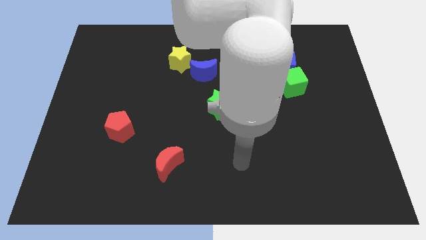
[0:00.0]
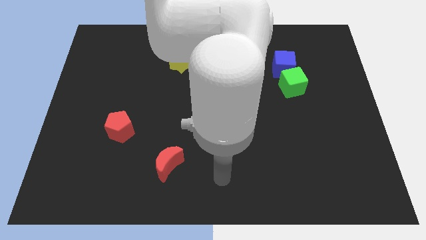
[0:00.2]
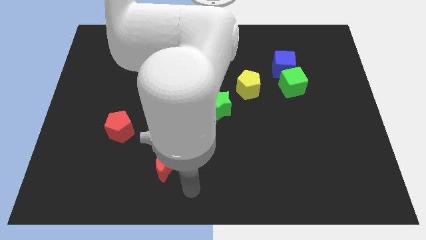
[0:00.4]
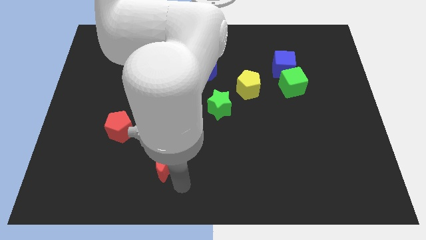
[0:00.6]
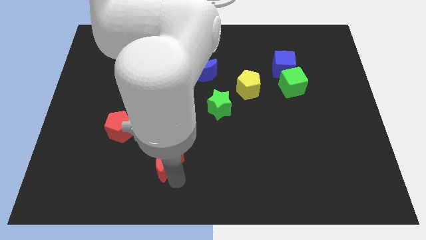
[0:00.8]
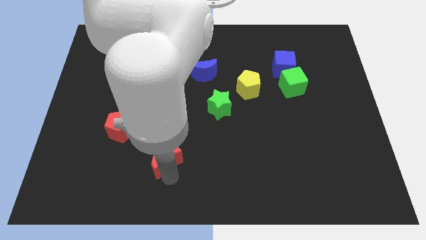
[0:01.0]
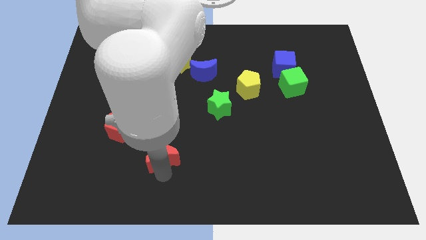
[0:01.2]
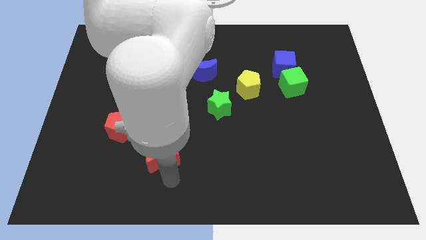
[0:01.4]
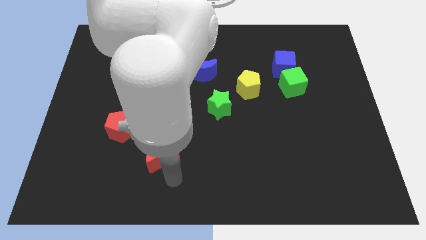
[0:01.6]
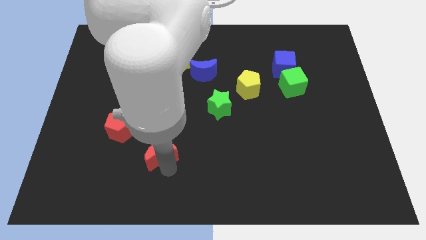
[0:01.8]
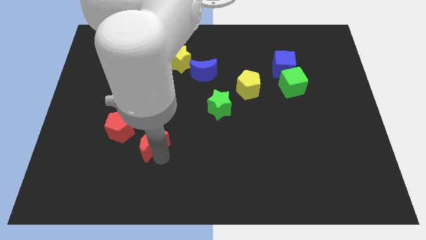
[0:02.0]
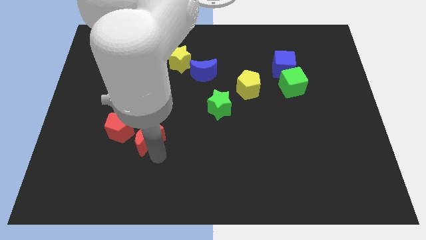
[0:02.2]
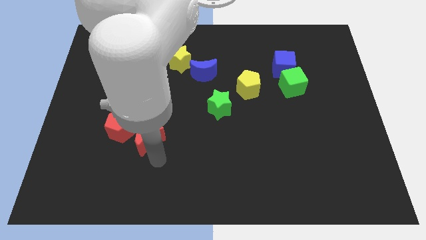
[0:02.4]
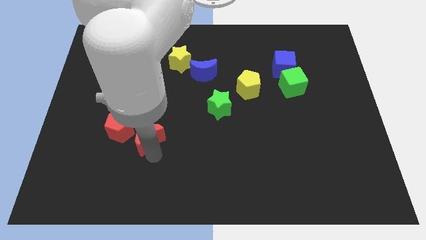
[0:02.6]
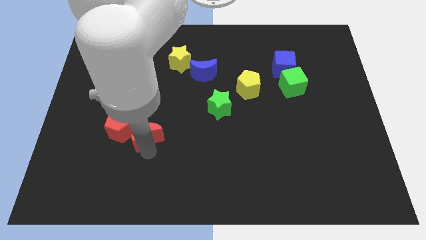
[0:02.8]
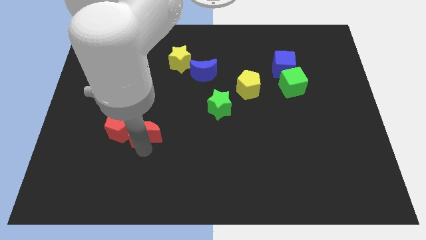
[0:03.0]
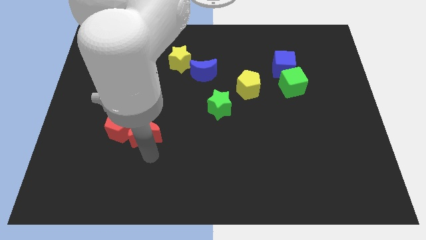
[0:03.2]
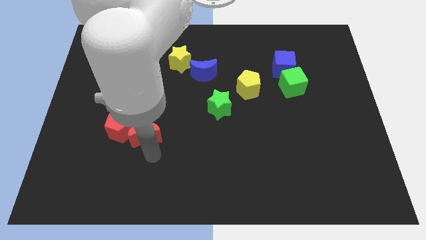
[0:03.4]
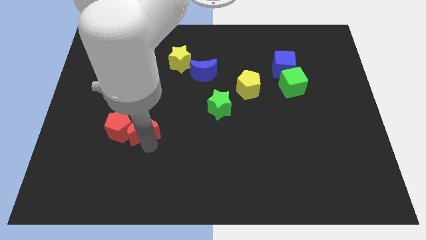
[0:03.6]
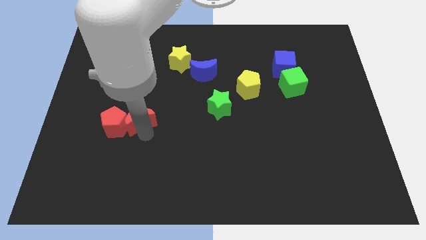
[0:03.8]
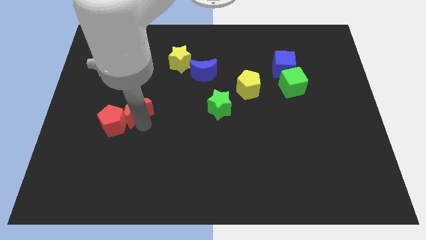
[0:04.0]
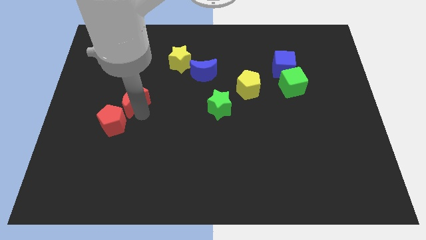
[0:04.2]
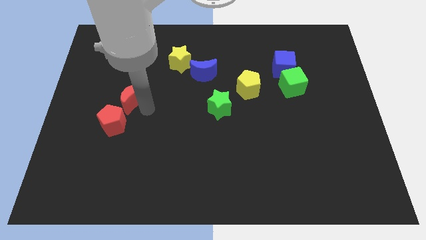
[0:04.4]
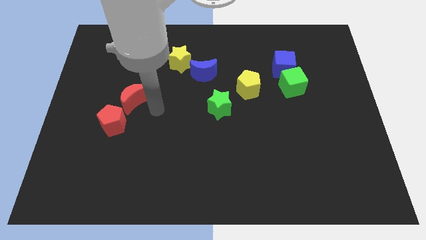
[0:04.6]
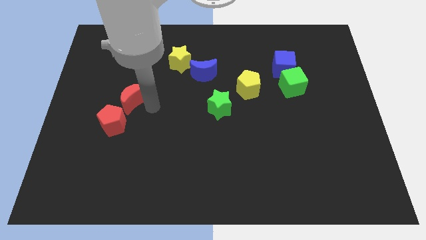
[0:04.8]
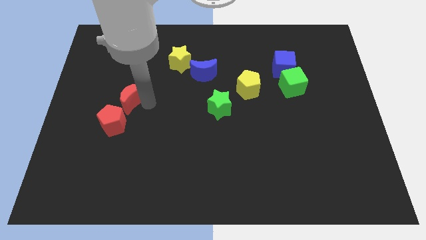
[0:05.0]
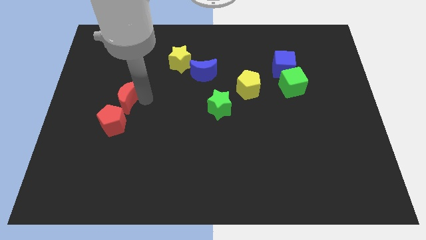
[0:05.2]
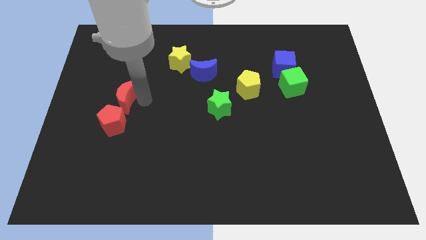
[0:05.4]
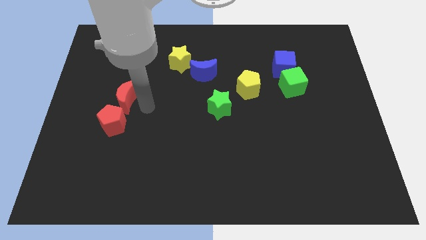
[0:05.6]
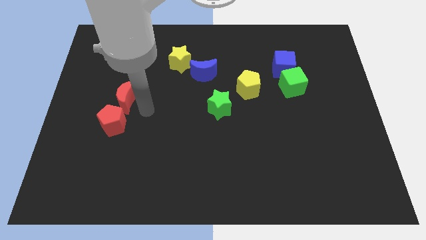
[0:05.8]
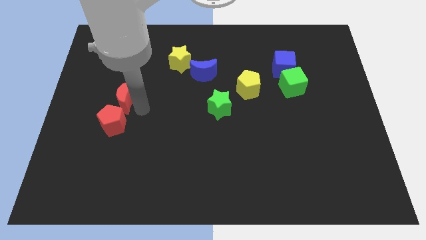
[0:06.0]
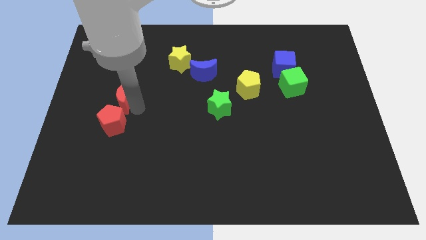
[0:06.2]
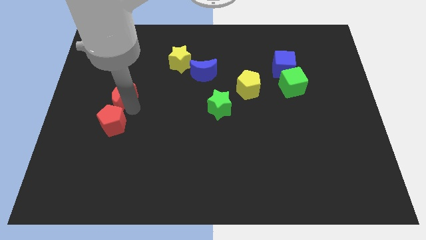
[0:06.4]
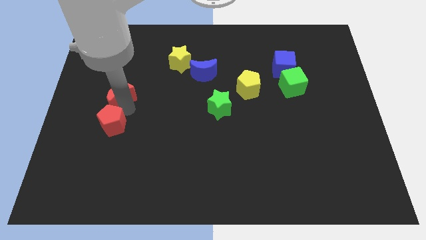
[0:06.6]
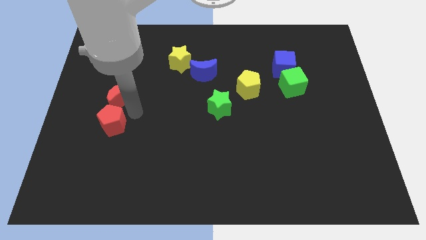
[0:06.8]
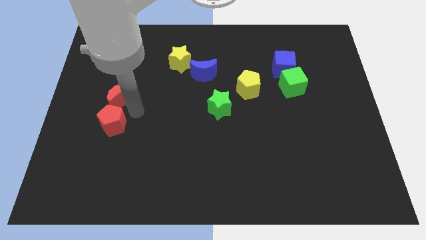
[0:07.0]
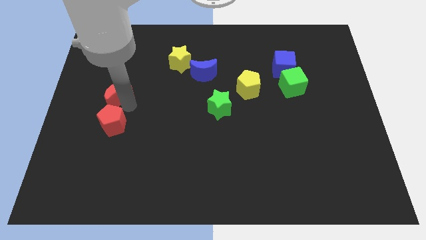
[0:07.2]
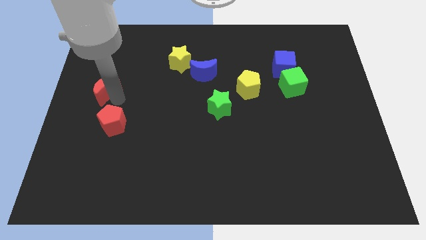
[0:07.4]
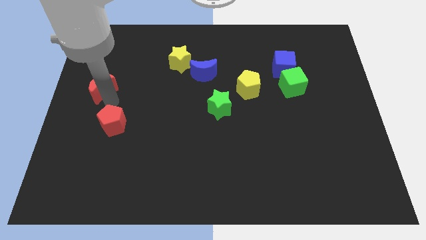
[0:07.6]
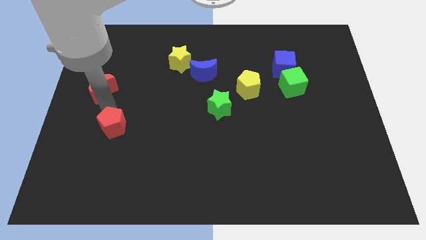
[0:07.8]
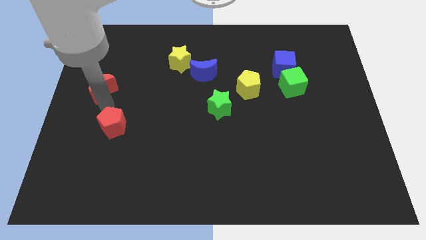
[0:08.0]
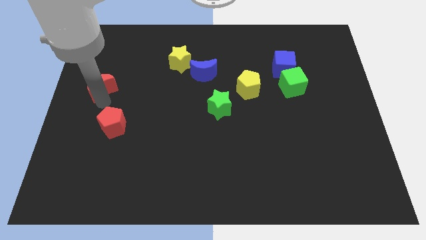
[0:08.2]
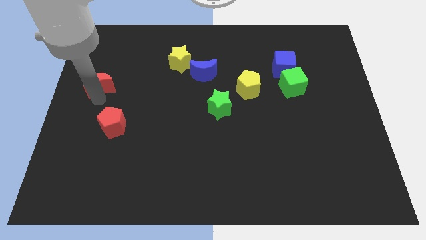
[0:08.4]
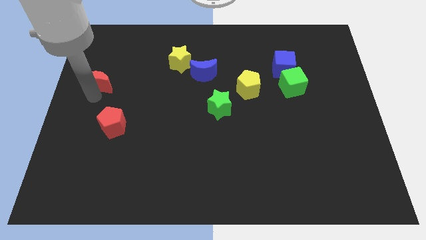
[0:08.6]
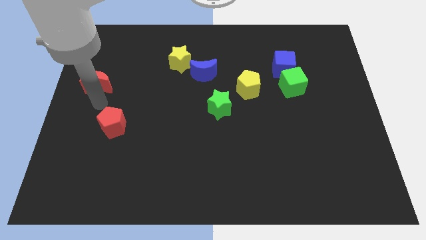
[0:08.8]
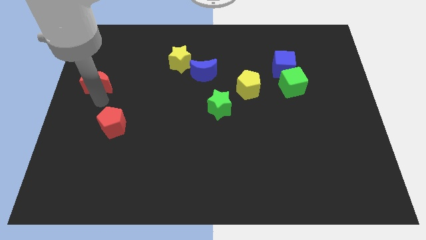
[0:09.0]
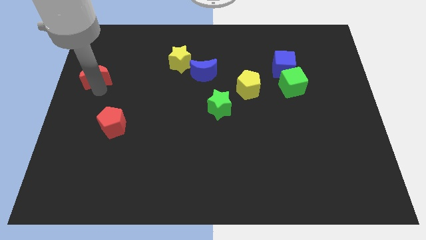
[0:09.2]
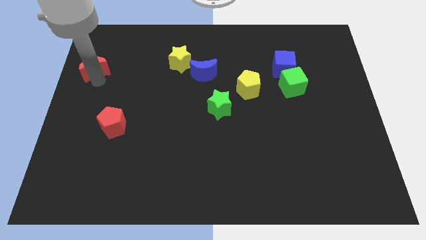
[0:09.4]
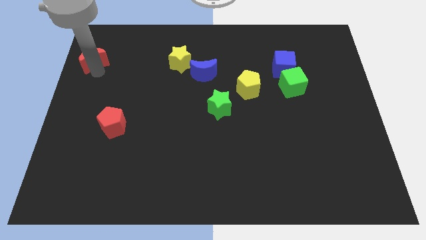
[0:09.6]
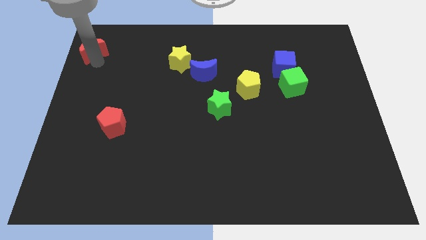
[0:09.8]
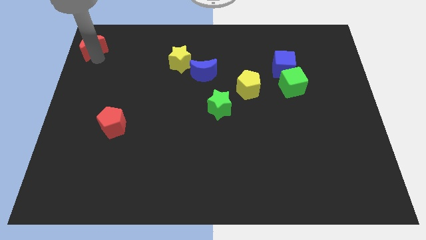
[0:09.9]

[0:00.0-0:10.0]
push the red moon to the top left corner

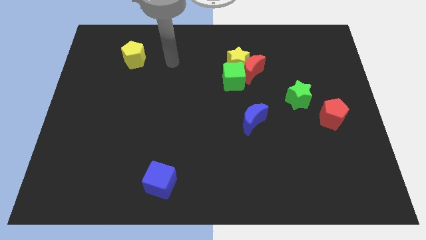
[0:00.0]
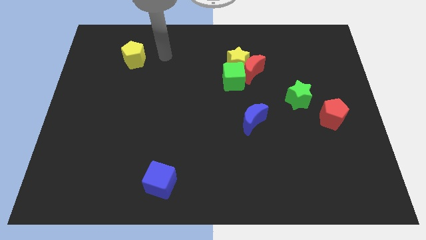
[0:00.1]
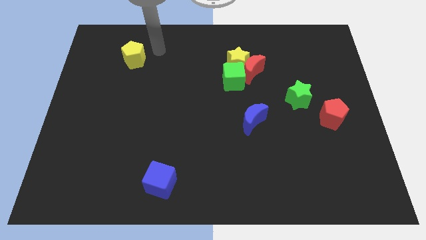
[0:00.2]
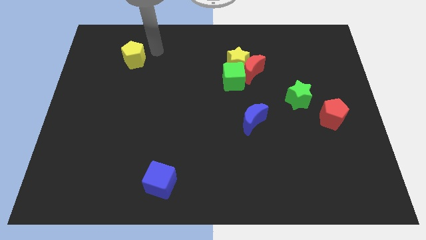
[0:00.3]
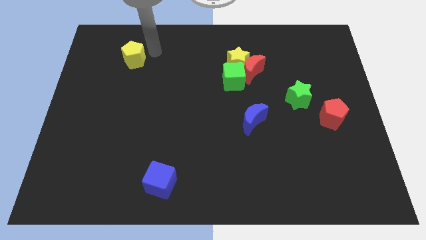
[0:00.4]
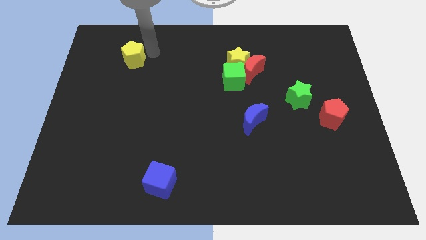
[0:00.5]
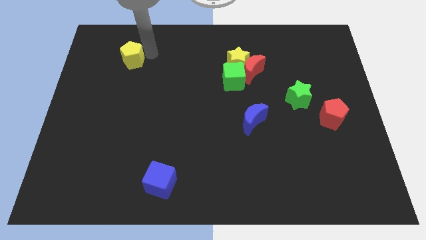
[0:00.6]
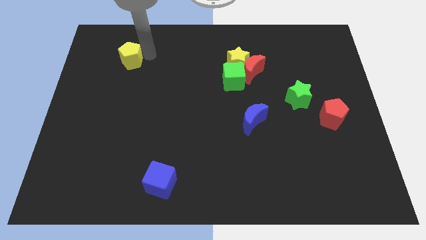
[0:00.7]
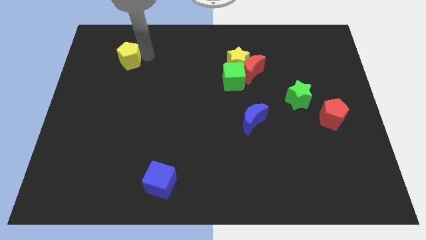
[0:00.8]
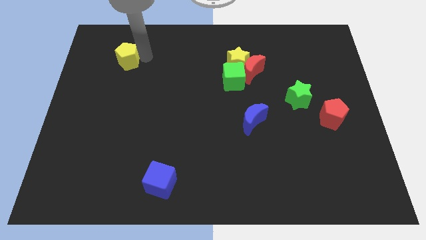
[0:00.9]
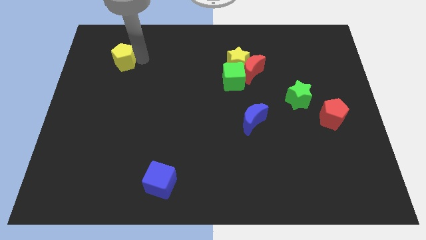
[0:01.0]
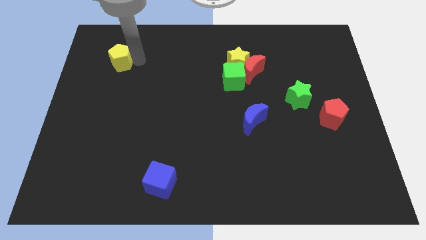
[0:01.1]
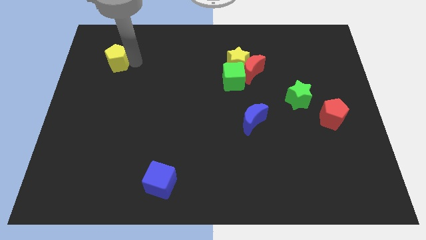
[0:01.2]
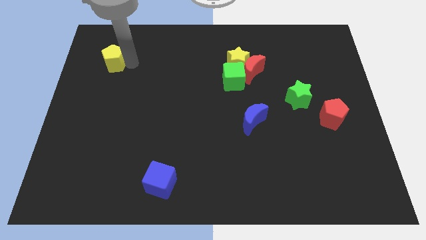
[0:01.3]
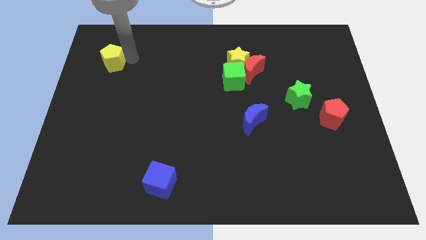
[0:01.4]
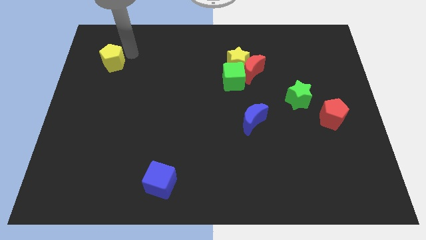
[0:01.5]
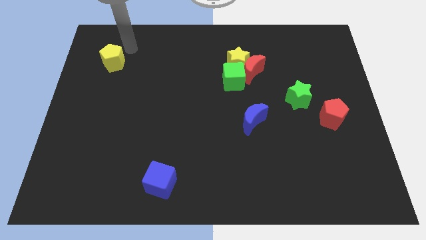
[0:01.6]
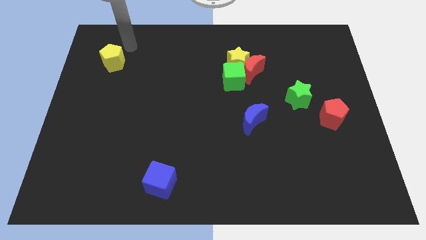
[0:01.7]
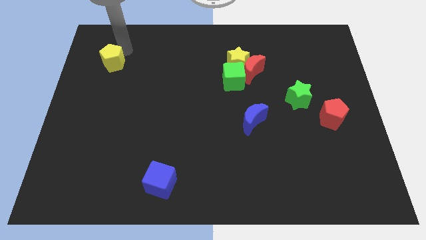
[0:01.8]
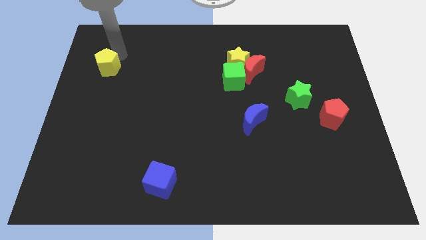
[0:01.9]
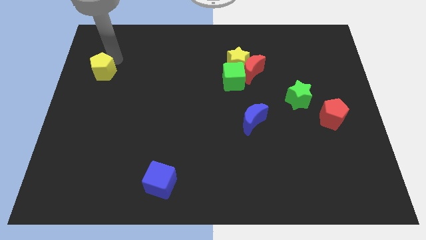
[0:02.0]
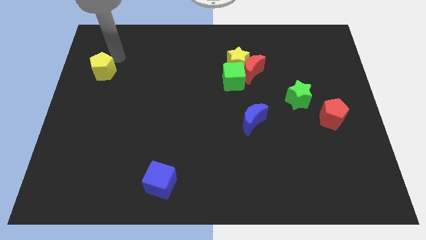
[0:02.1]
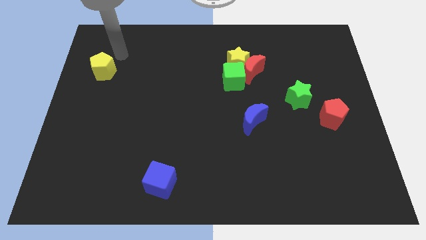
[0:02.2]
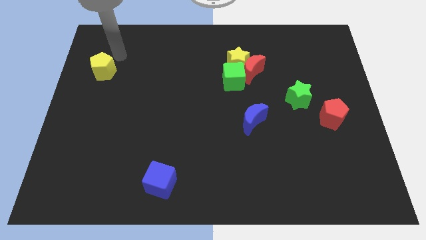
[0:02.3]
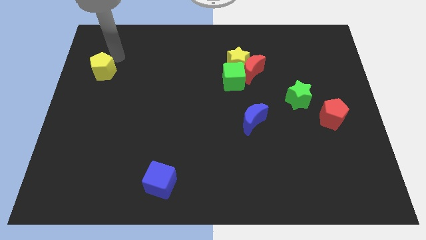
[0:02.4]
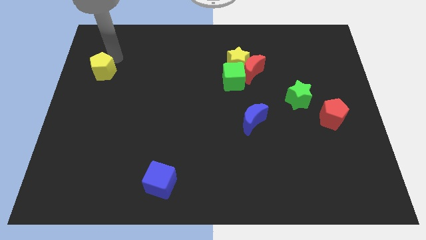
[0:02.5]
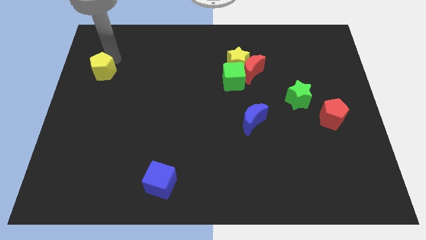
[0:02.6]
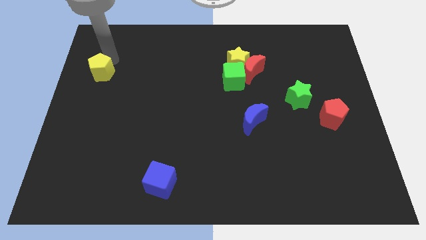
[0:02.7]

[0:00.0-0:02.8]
put the yellow pentagon to the left side of the board
